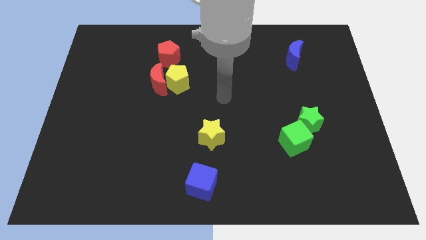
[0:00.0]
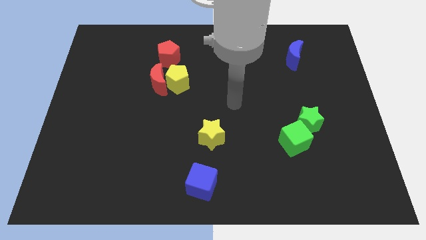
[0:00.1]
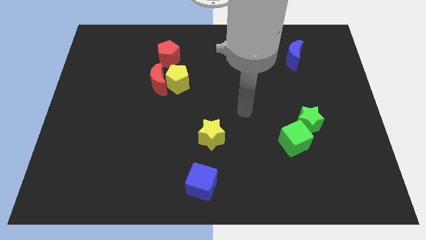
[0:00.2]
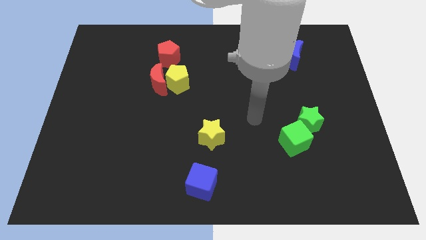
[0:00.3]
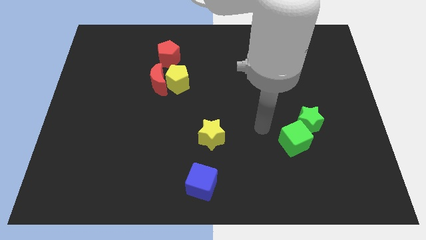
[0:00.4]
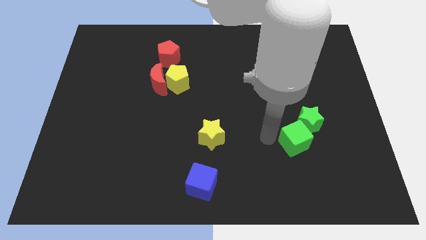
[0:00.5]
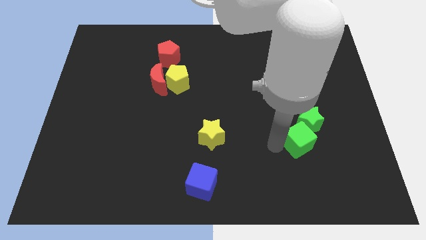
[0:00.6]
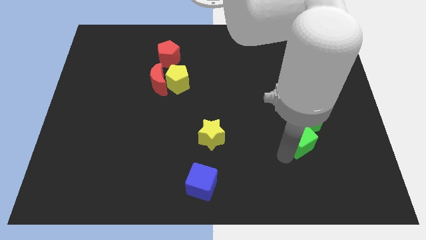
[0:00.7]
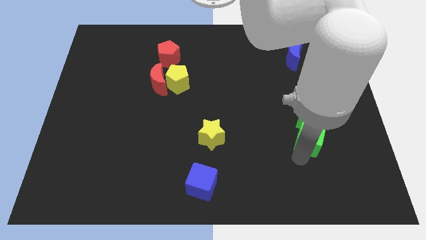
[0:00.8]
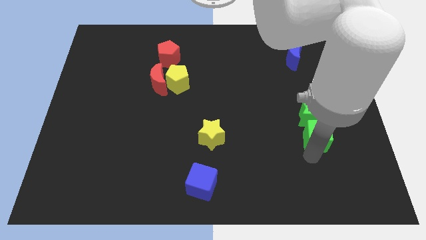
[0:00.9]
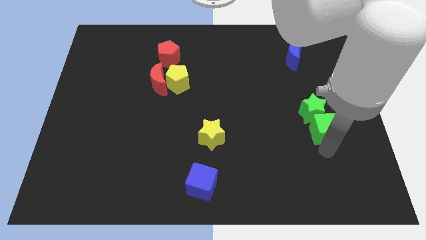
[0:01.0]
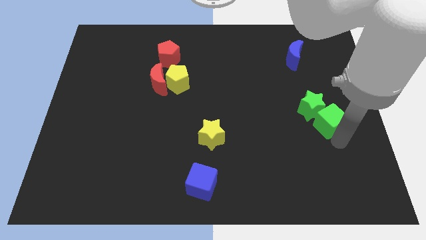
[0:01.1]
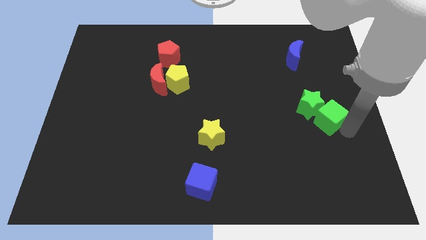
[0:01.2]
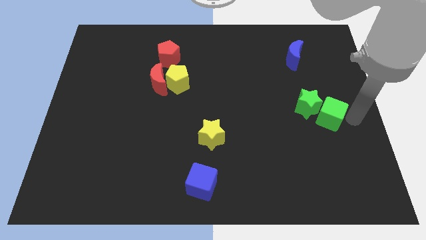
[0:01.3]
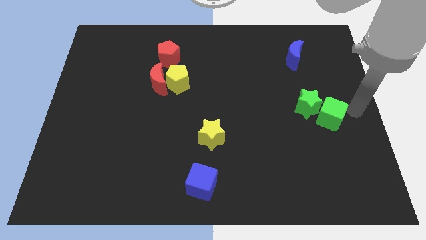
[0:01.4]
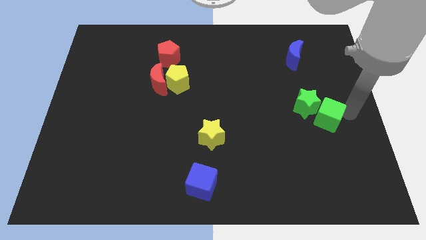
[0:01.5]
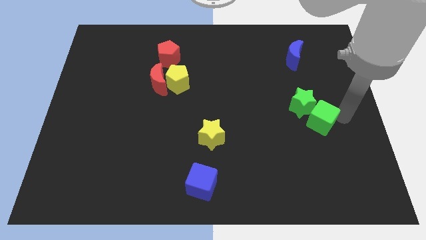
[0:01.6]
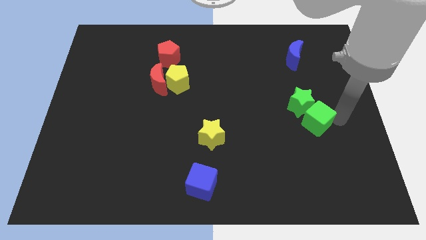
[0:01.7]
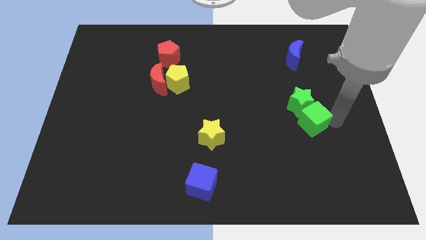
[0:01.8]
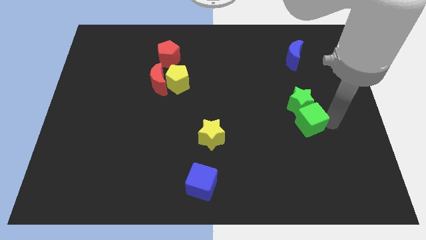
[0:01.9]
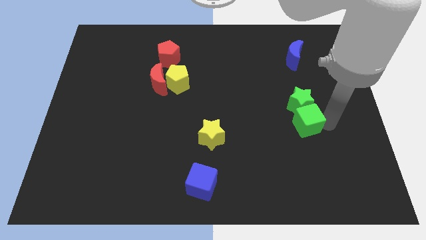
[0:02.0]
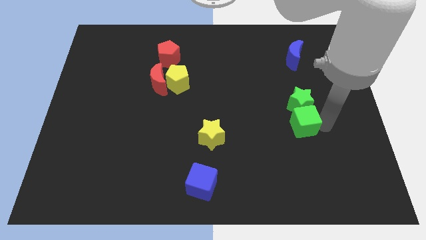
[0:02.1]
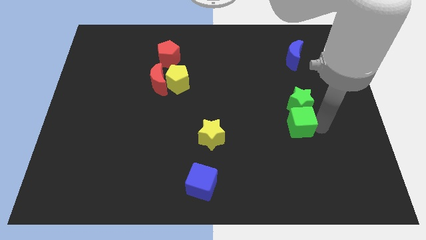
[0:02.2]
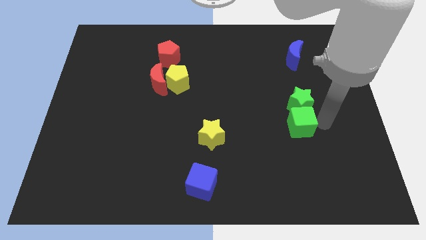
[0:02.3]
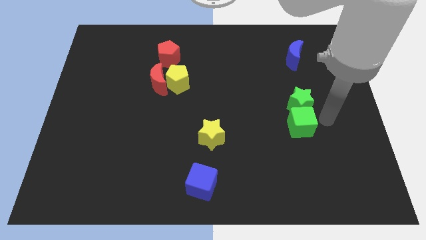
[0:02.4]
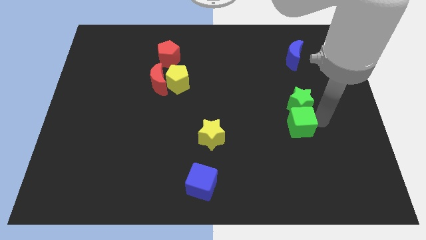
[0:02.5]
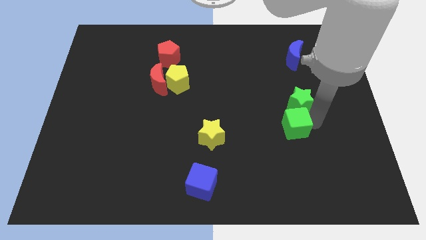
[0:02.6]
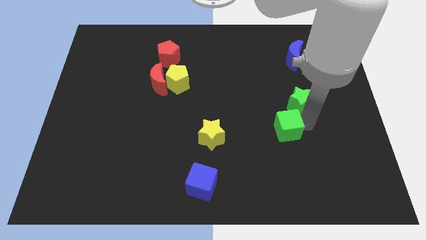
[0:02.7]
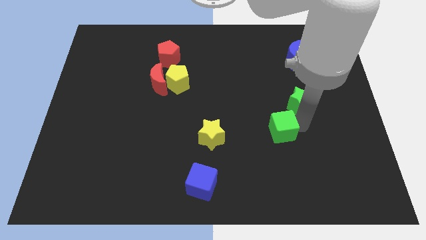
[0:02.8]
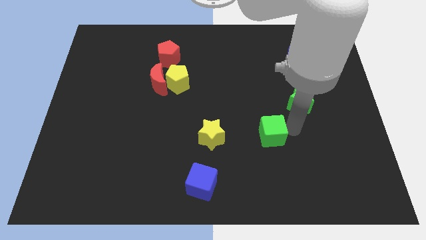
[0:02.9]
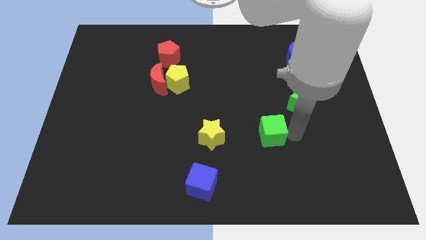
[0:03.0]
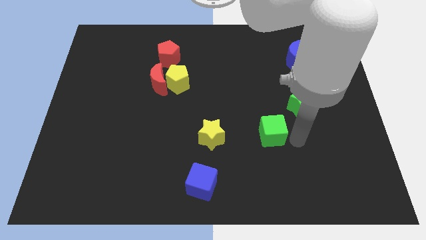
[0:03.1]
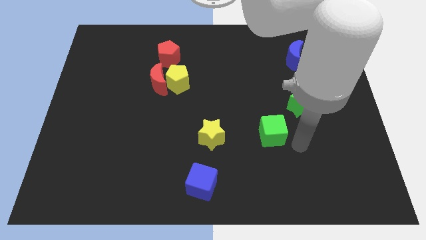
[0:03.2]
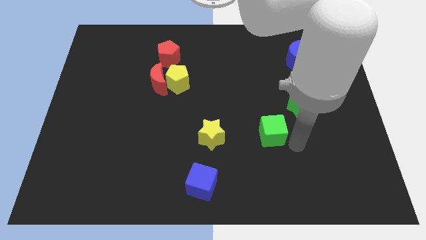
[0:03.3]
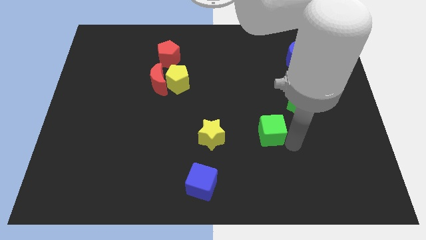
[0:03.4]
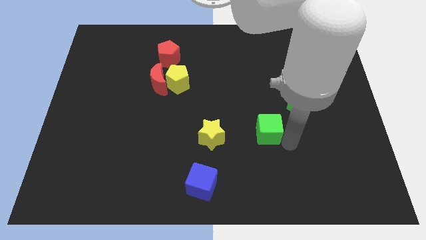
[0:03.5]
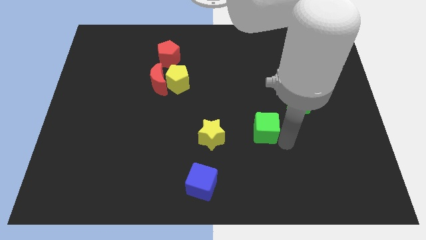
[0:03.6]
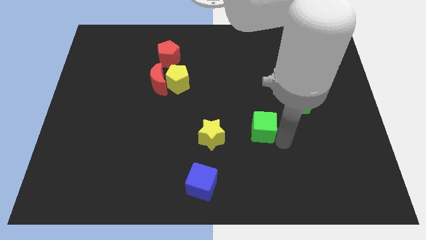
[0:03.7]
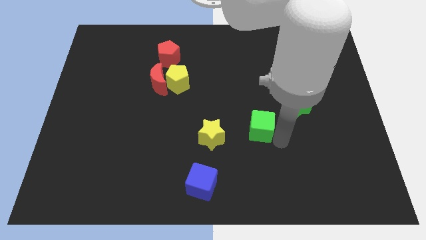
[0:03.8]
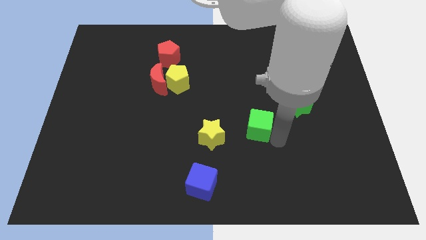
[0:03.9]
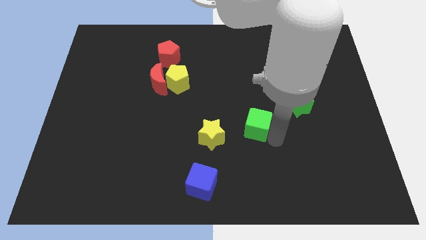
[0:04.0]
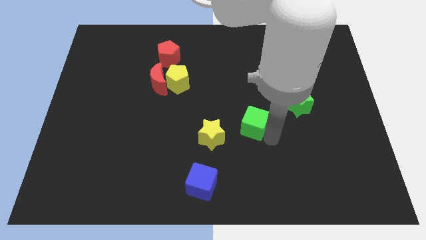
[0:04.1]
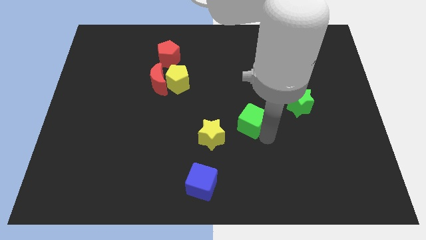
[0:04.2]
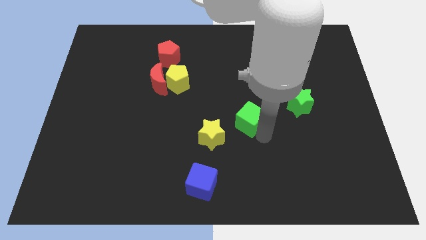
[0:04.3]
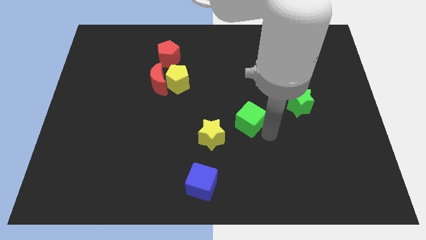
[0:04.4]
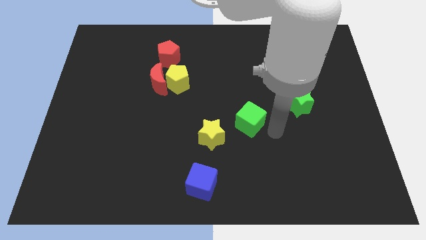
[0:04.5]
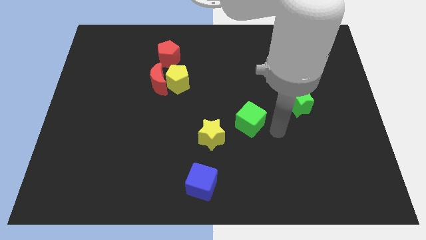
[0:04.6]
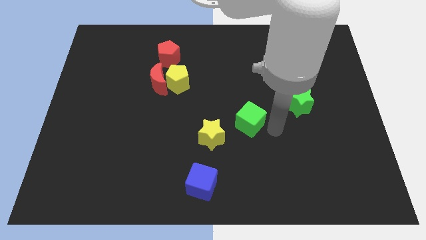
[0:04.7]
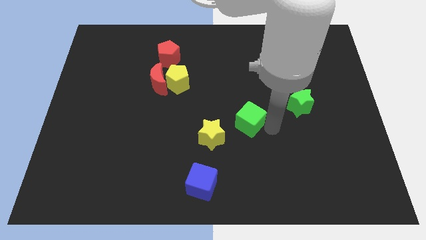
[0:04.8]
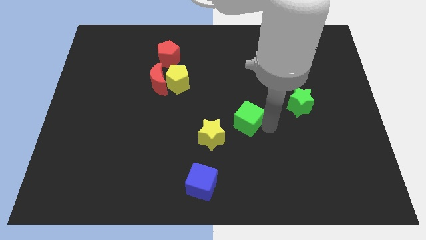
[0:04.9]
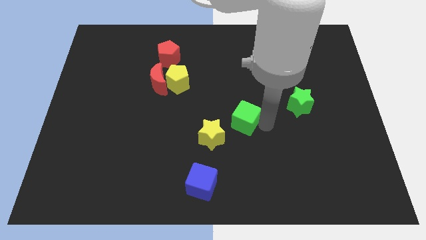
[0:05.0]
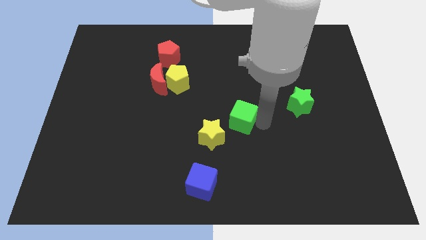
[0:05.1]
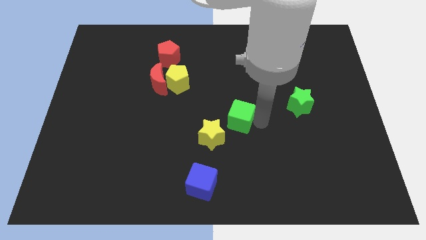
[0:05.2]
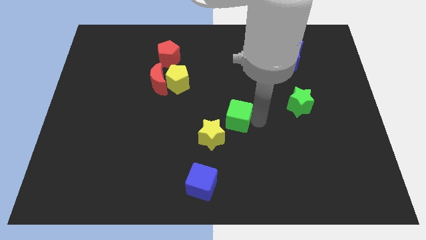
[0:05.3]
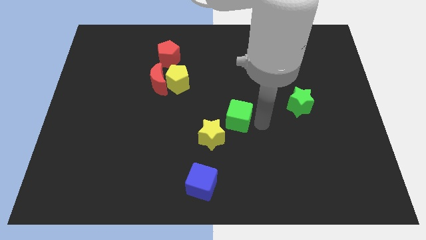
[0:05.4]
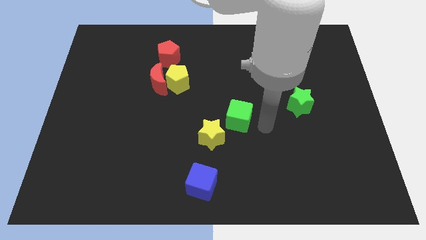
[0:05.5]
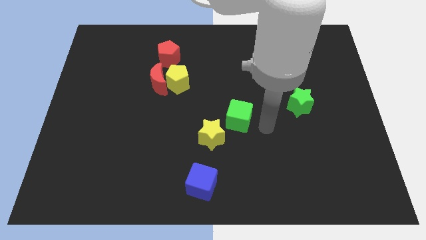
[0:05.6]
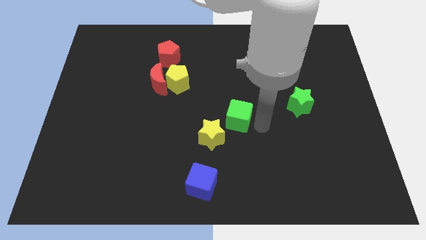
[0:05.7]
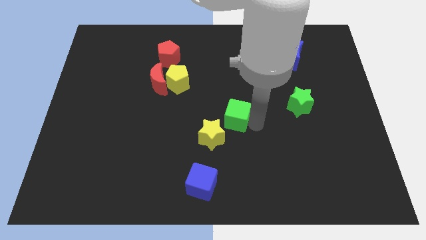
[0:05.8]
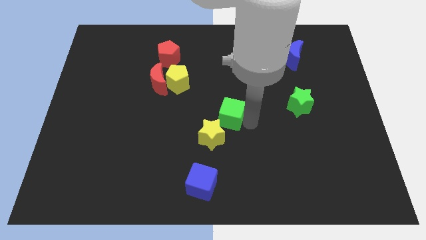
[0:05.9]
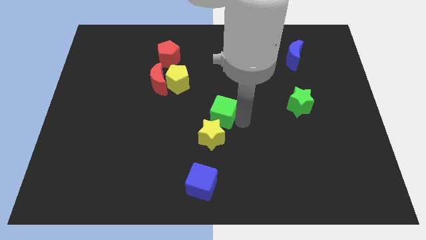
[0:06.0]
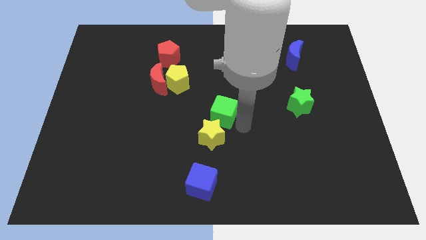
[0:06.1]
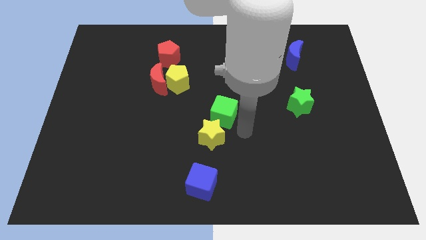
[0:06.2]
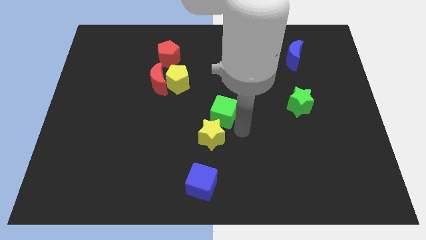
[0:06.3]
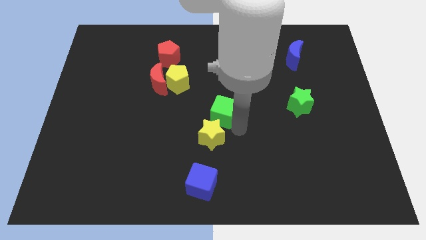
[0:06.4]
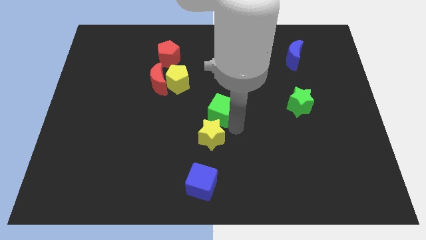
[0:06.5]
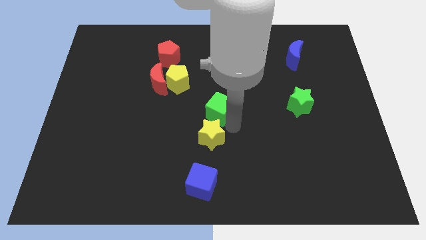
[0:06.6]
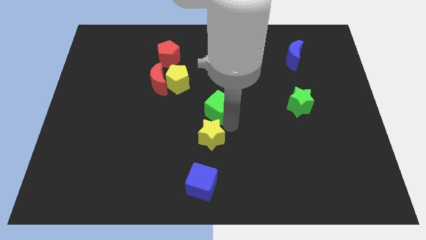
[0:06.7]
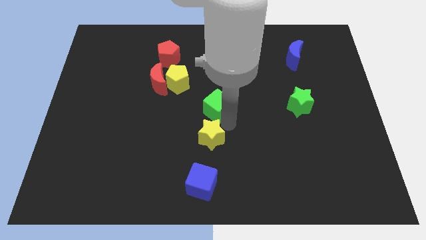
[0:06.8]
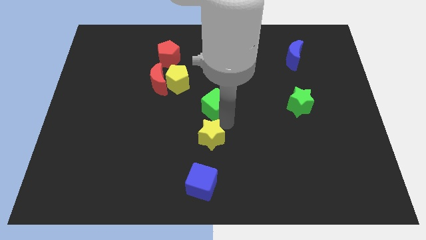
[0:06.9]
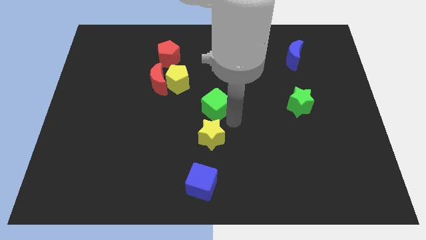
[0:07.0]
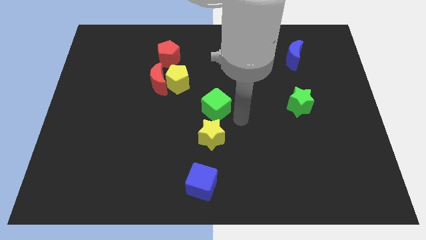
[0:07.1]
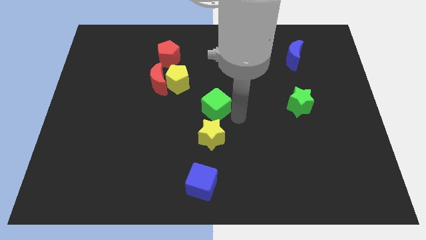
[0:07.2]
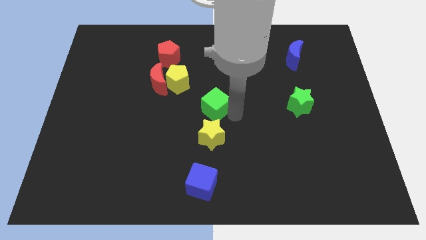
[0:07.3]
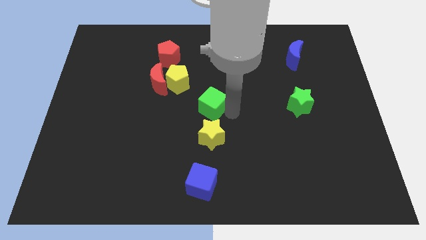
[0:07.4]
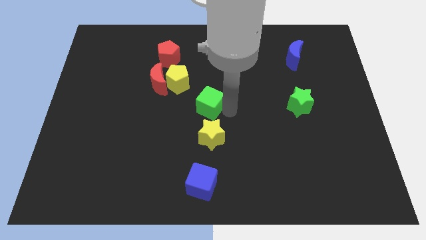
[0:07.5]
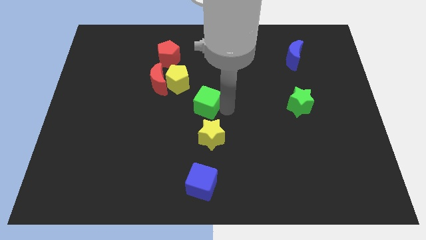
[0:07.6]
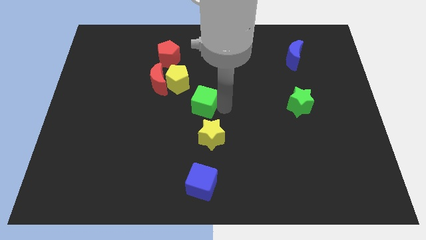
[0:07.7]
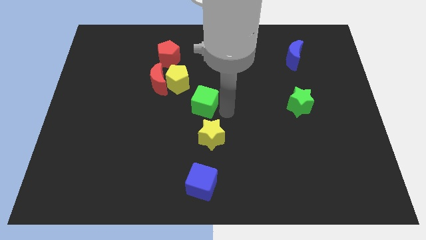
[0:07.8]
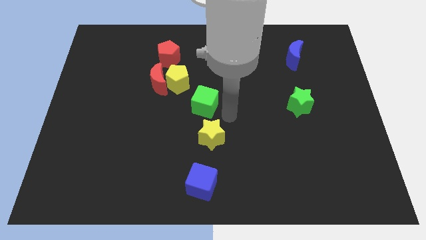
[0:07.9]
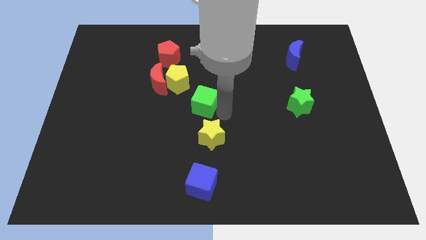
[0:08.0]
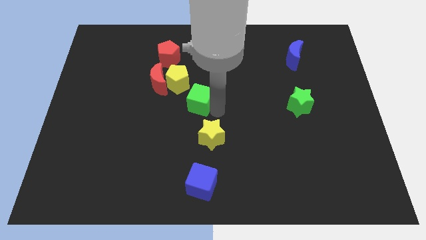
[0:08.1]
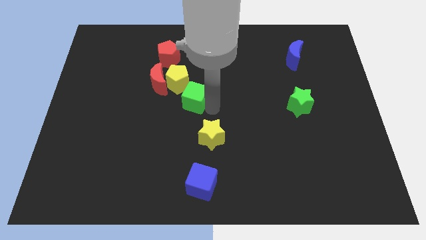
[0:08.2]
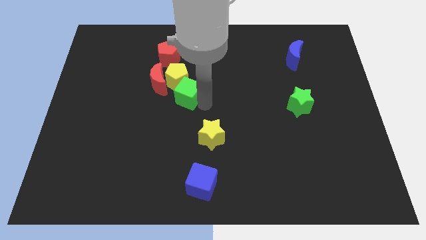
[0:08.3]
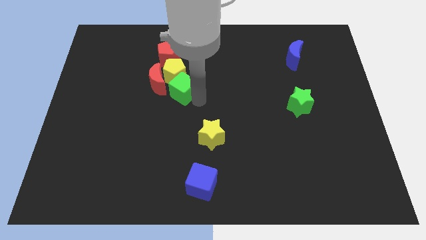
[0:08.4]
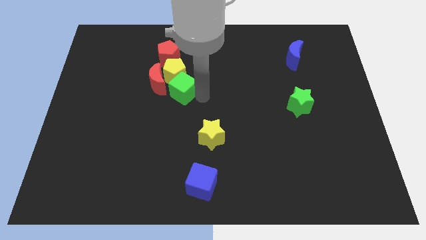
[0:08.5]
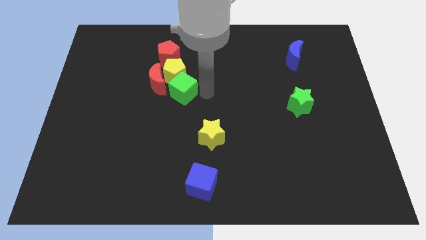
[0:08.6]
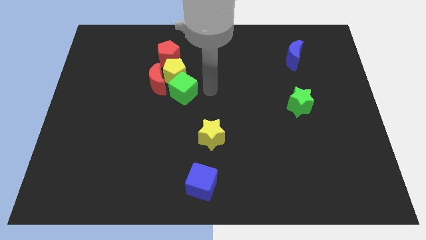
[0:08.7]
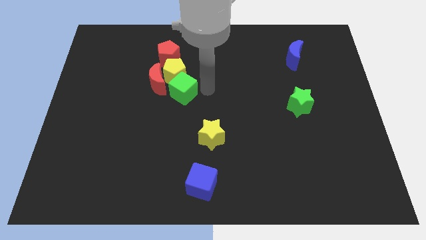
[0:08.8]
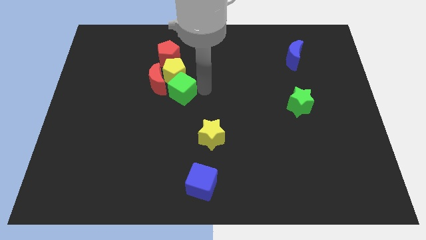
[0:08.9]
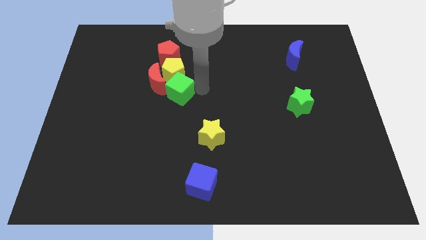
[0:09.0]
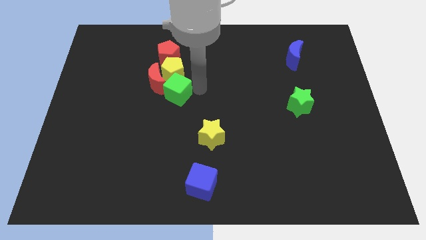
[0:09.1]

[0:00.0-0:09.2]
move the green cube towards the red moon
